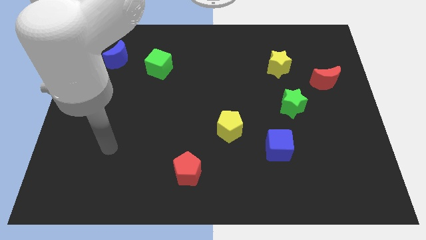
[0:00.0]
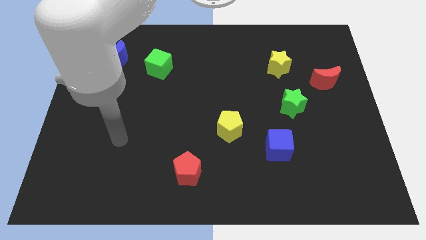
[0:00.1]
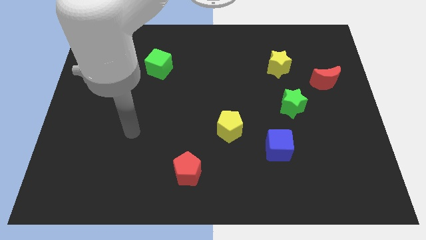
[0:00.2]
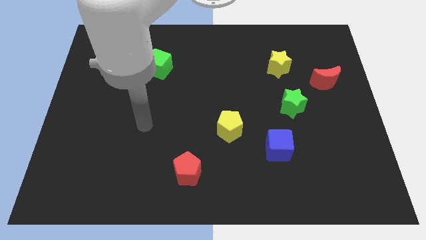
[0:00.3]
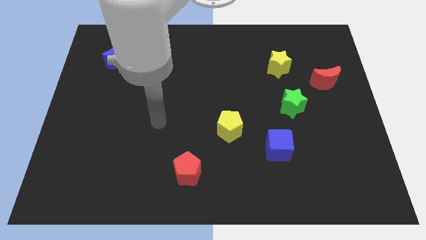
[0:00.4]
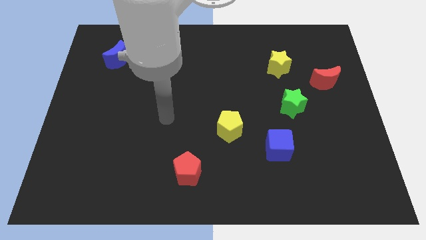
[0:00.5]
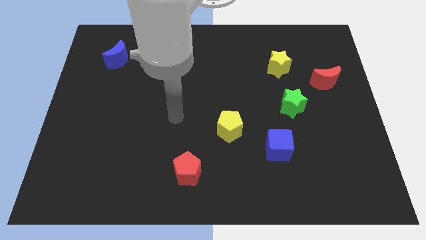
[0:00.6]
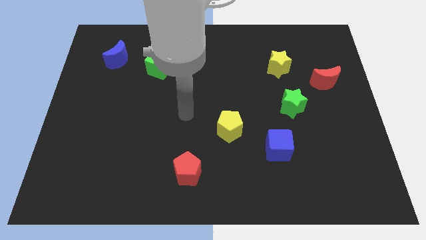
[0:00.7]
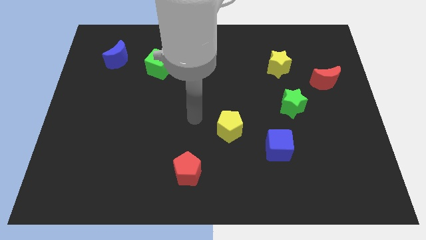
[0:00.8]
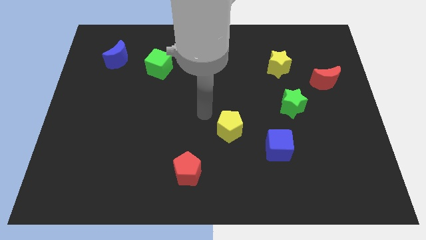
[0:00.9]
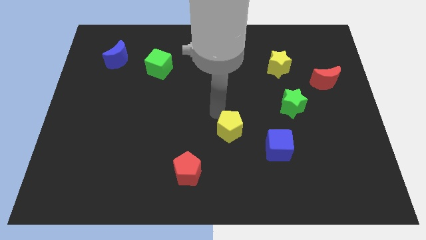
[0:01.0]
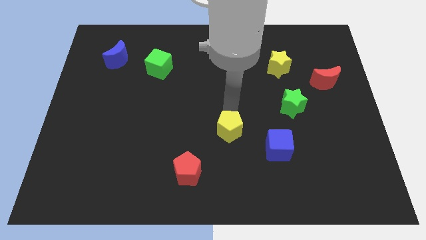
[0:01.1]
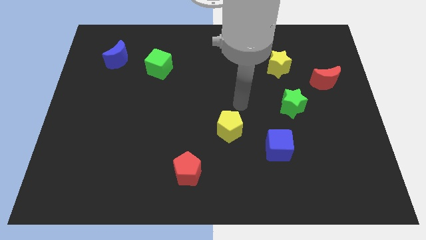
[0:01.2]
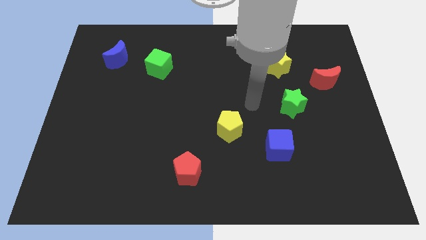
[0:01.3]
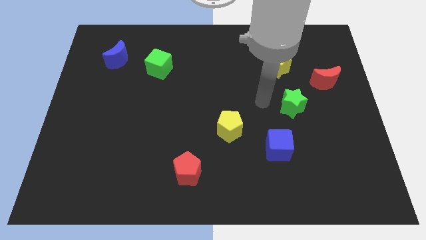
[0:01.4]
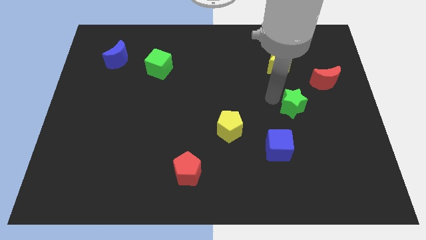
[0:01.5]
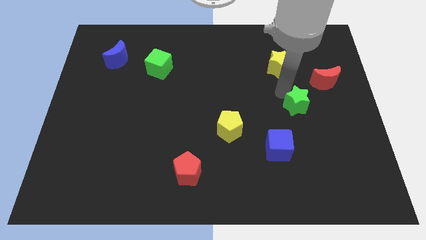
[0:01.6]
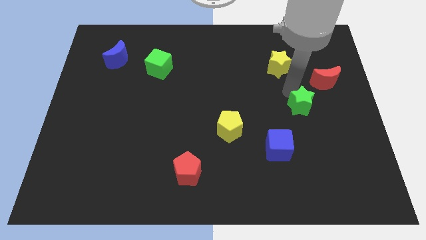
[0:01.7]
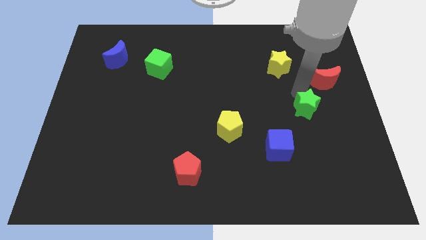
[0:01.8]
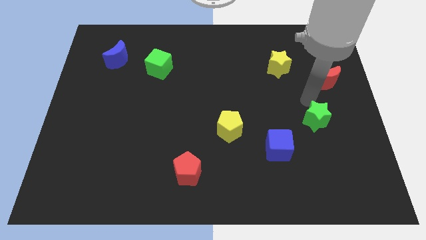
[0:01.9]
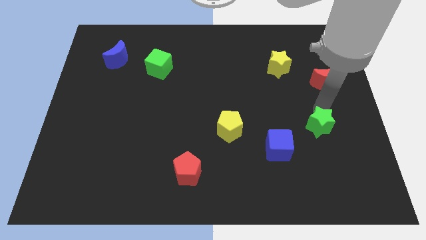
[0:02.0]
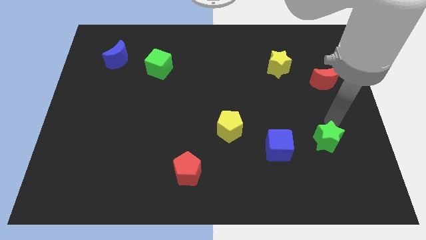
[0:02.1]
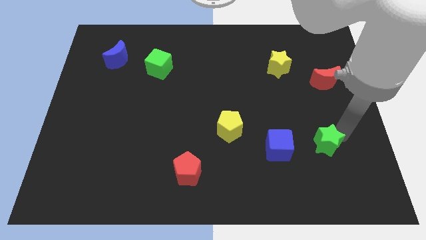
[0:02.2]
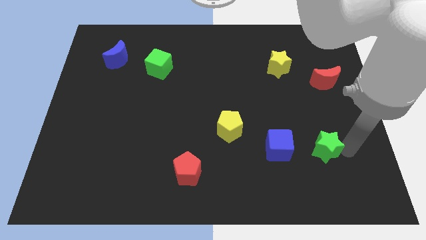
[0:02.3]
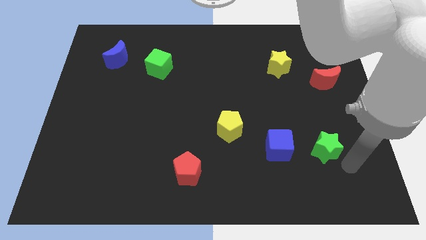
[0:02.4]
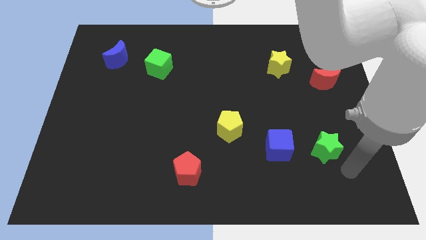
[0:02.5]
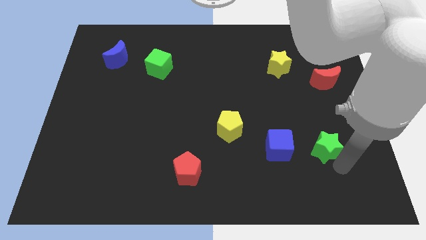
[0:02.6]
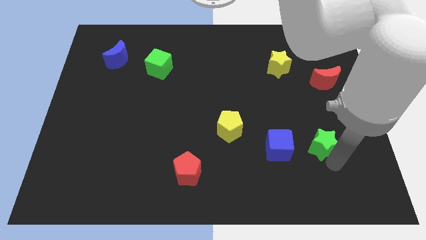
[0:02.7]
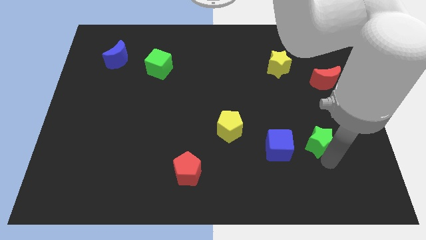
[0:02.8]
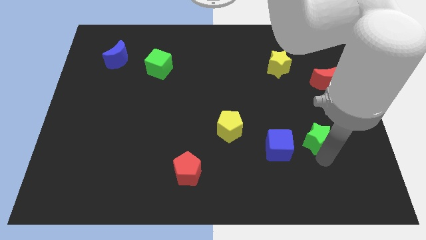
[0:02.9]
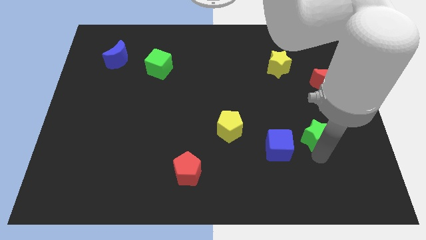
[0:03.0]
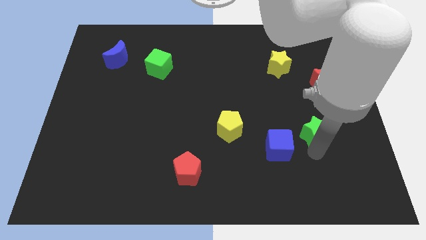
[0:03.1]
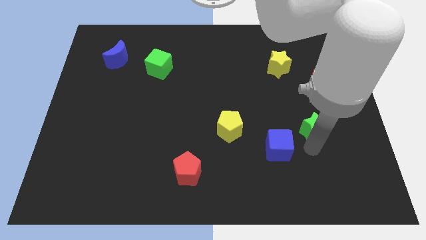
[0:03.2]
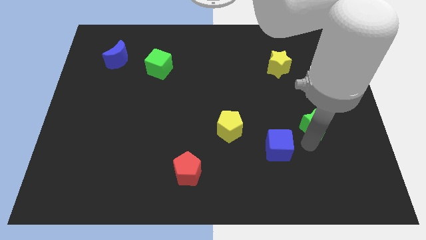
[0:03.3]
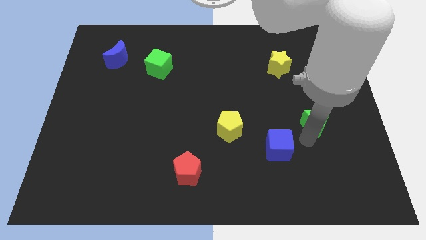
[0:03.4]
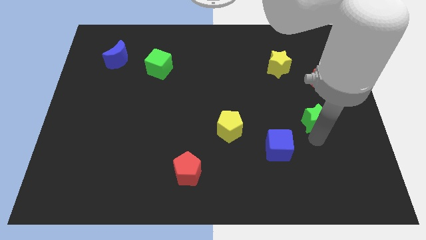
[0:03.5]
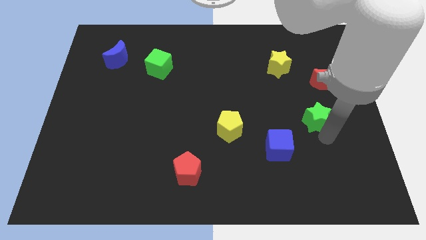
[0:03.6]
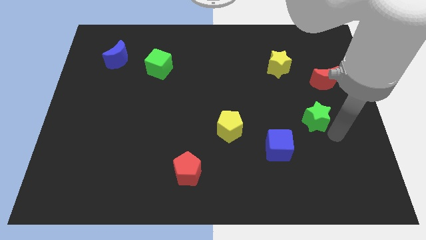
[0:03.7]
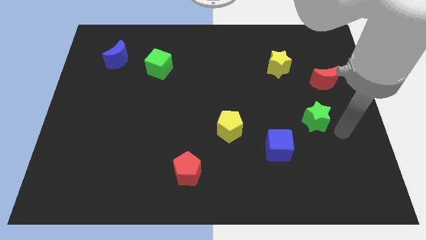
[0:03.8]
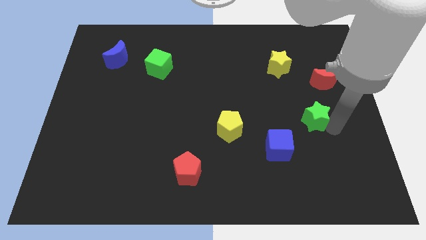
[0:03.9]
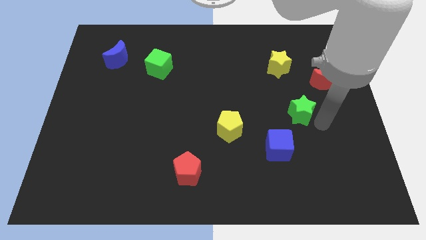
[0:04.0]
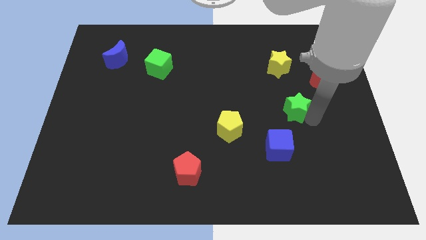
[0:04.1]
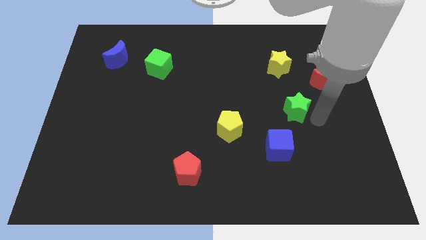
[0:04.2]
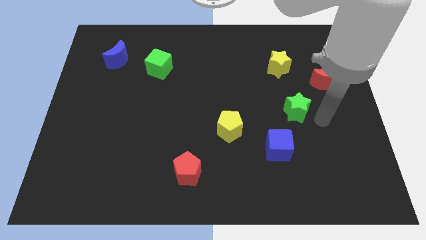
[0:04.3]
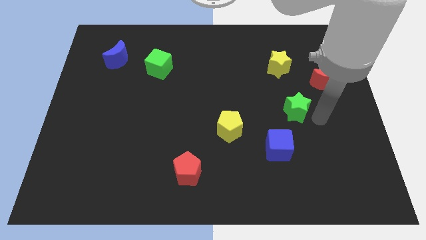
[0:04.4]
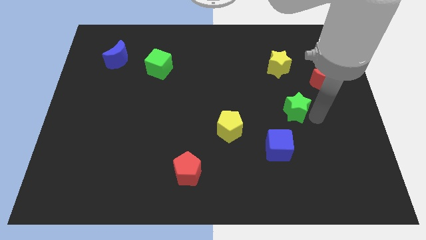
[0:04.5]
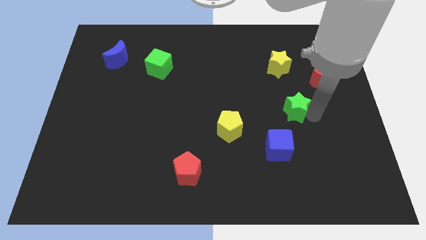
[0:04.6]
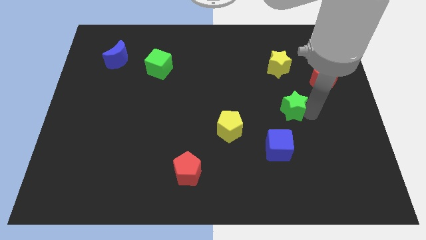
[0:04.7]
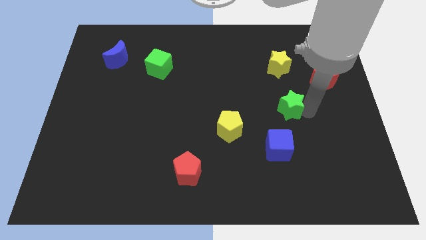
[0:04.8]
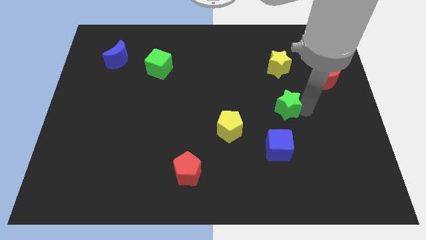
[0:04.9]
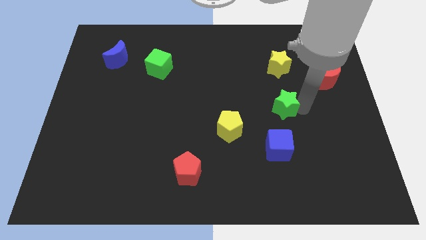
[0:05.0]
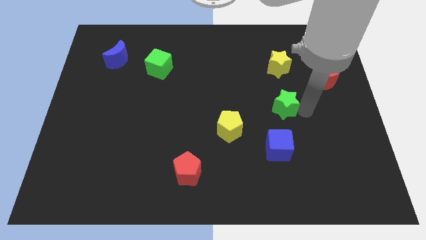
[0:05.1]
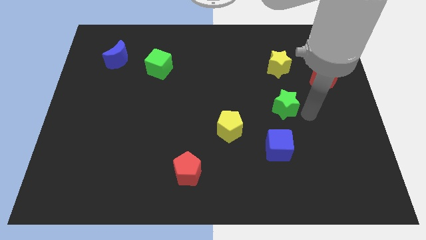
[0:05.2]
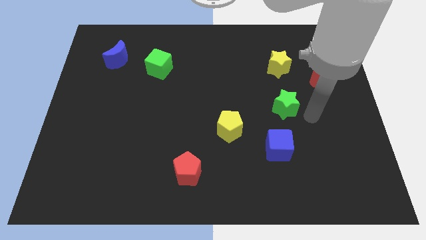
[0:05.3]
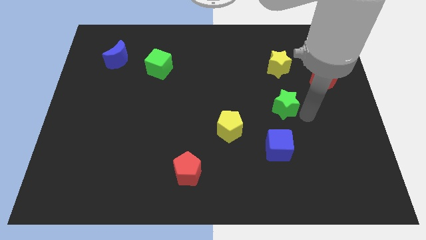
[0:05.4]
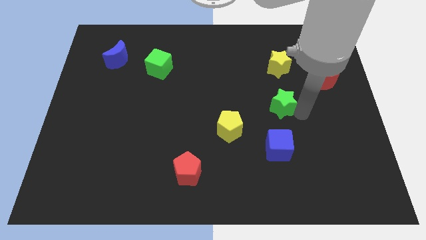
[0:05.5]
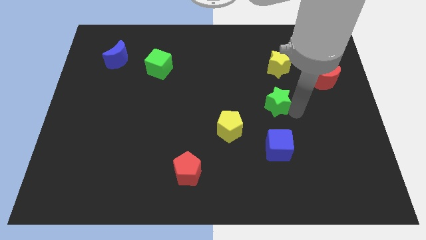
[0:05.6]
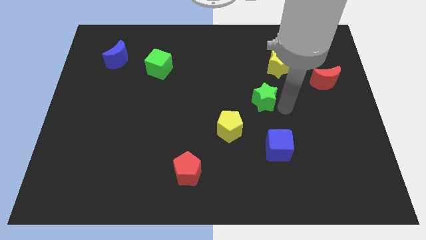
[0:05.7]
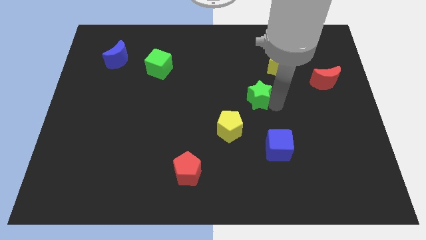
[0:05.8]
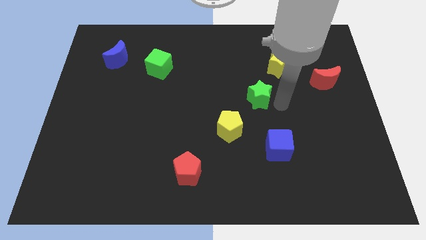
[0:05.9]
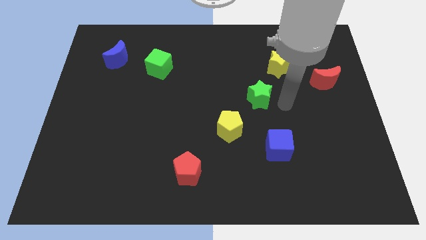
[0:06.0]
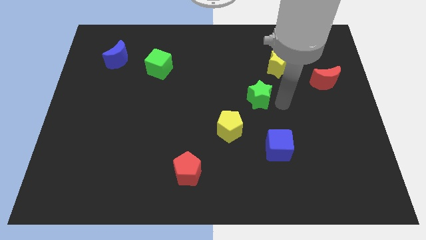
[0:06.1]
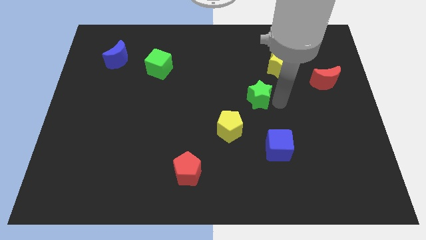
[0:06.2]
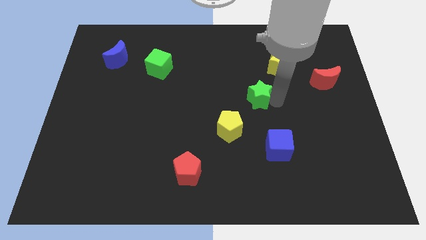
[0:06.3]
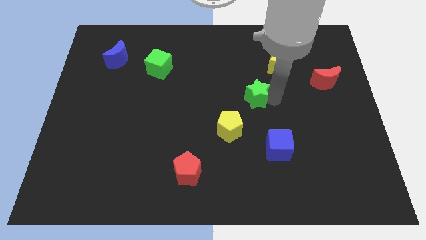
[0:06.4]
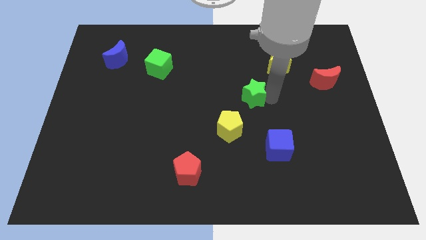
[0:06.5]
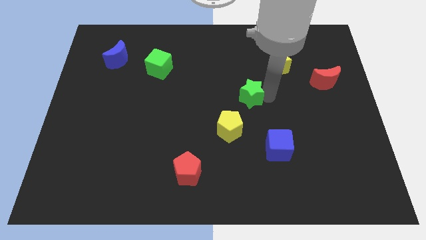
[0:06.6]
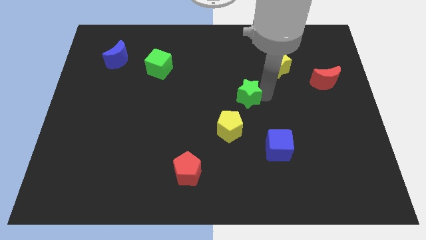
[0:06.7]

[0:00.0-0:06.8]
put the green star to the top of the yellow pentagon

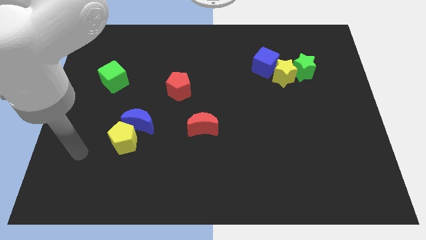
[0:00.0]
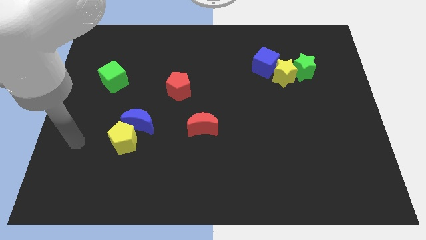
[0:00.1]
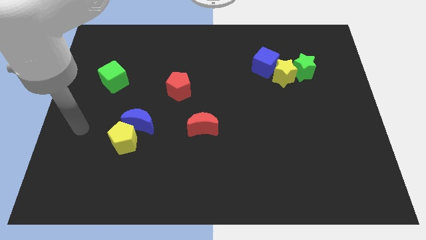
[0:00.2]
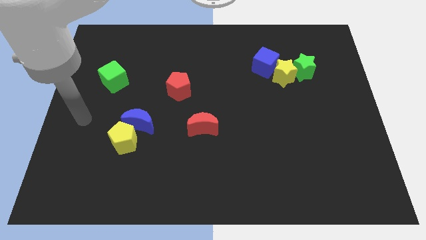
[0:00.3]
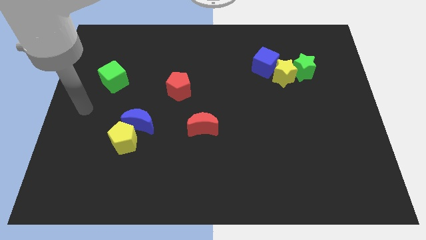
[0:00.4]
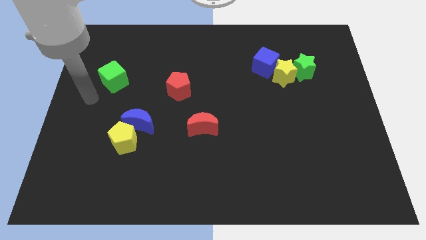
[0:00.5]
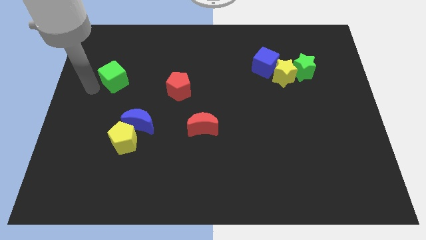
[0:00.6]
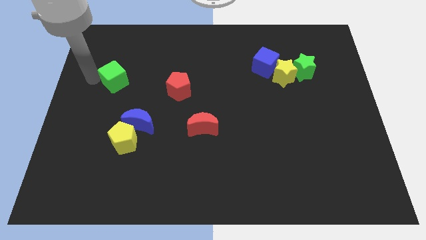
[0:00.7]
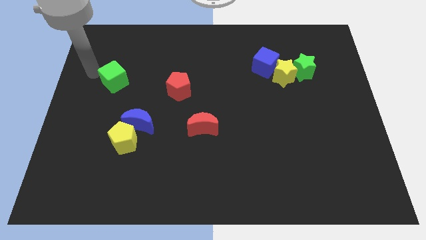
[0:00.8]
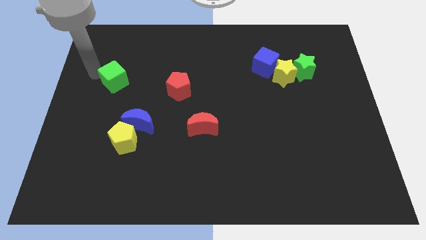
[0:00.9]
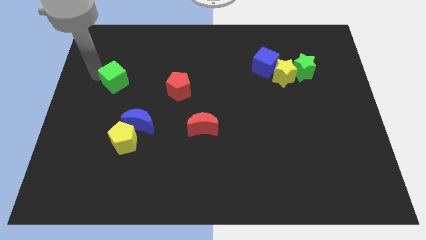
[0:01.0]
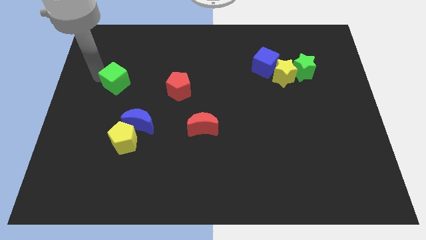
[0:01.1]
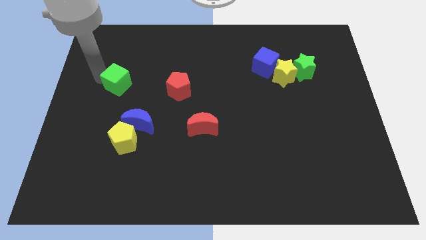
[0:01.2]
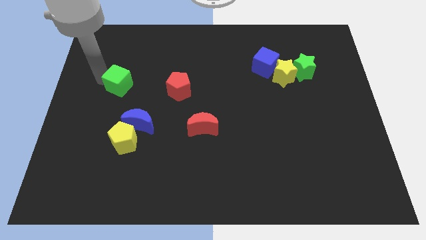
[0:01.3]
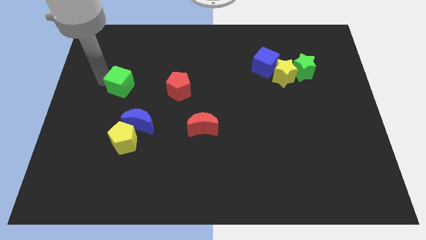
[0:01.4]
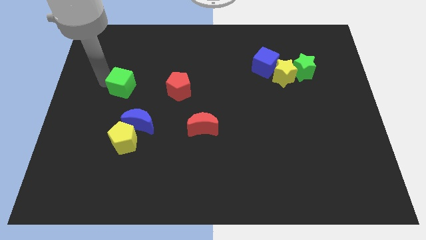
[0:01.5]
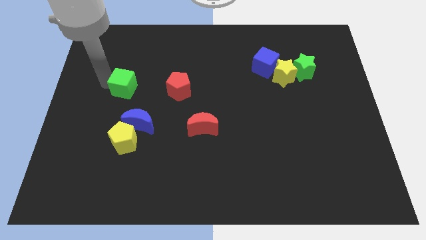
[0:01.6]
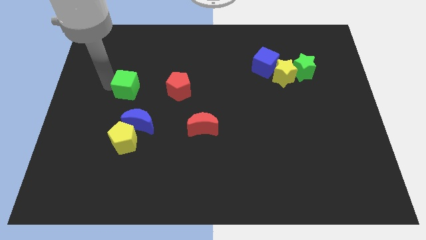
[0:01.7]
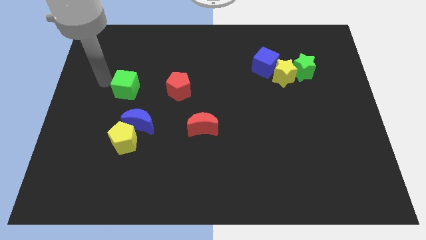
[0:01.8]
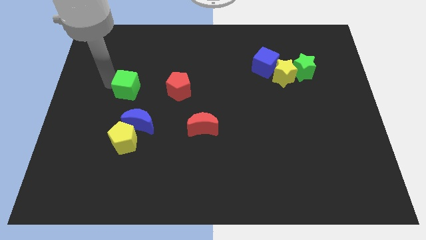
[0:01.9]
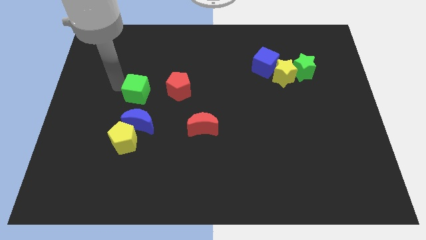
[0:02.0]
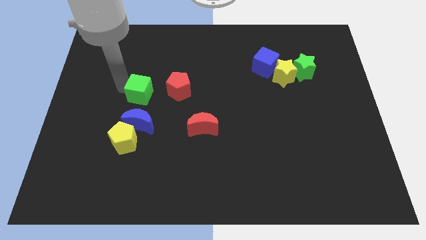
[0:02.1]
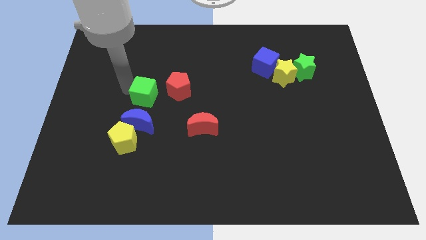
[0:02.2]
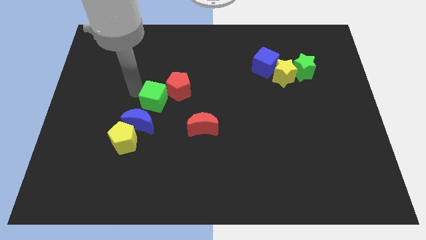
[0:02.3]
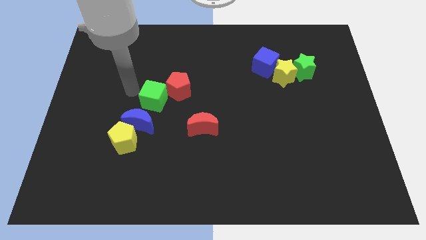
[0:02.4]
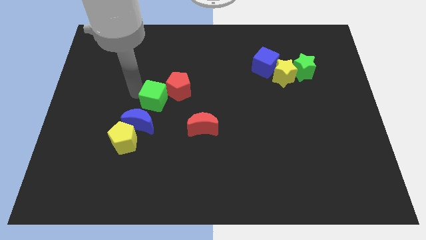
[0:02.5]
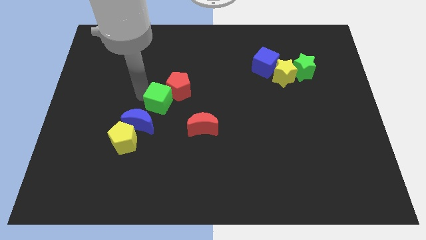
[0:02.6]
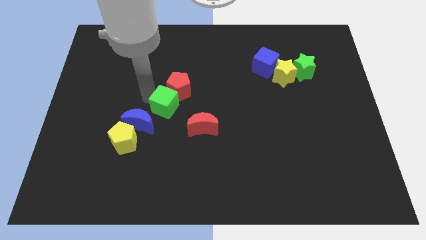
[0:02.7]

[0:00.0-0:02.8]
push the green cube to the top left of the red moon
